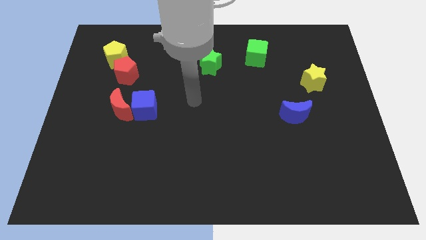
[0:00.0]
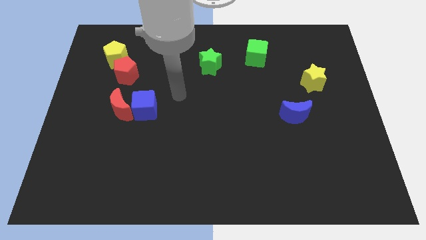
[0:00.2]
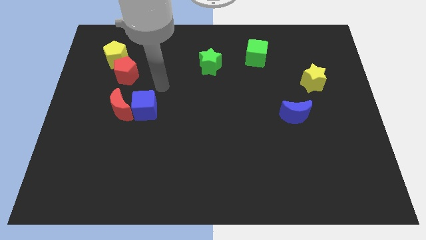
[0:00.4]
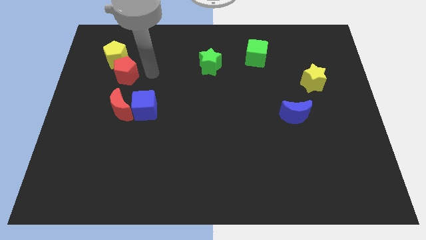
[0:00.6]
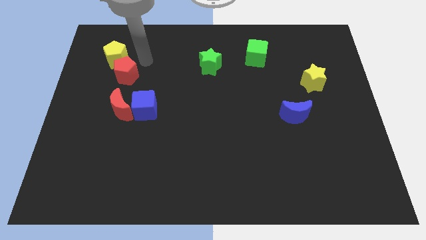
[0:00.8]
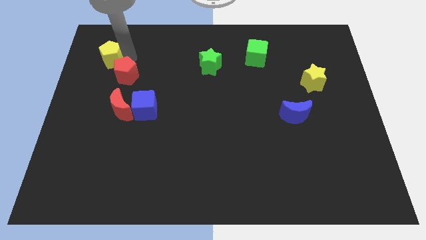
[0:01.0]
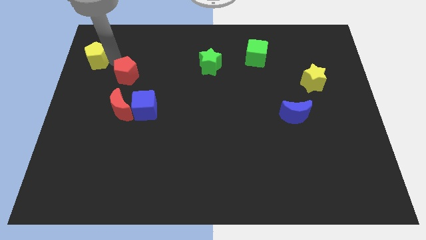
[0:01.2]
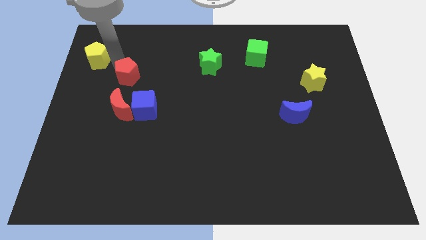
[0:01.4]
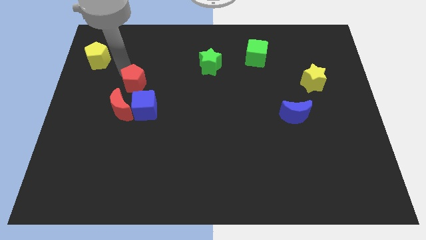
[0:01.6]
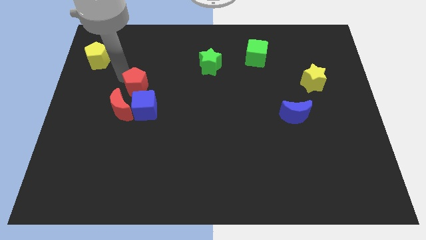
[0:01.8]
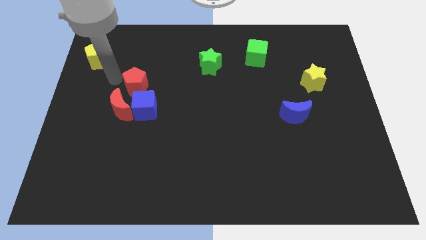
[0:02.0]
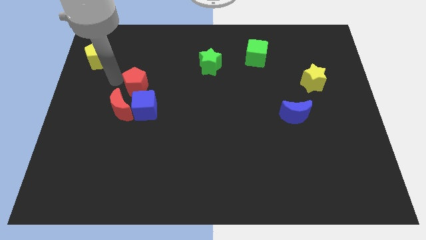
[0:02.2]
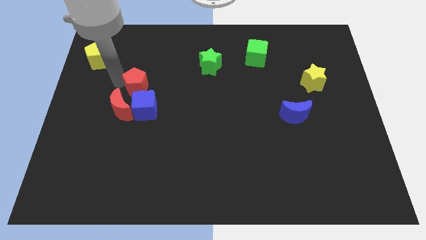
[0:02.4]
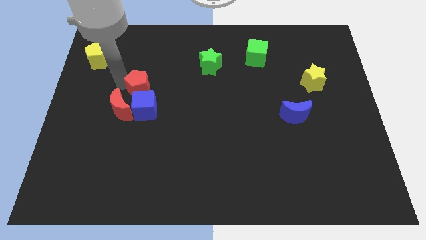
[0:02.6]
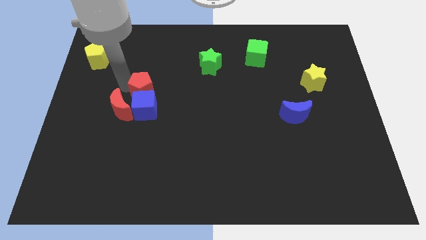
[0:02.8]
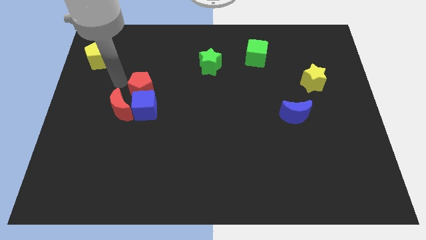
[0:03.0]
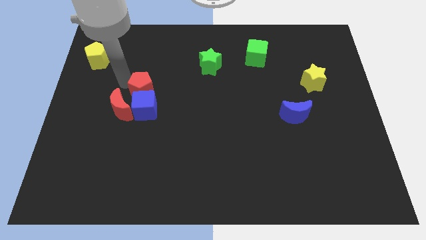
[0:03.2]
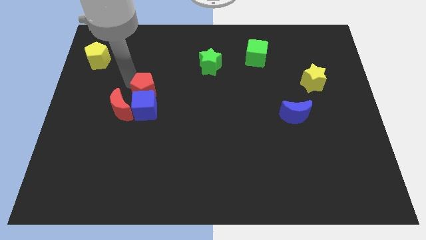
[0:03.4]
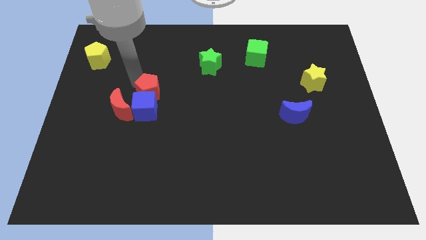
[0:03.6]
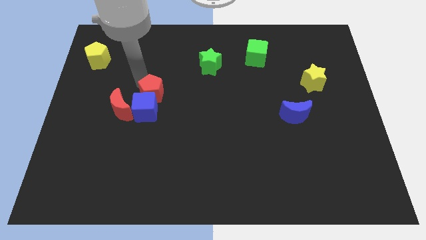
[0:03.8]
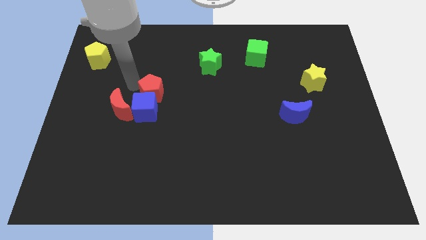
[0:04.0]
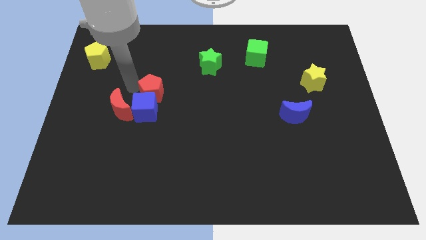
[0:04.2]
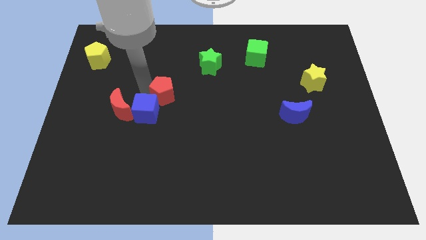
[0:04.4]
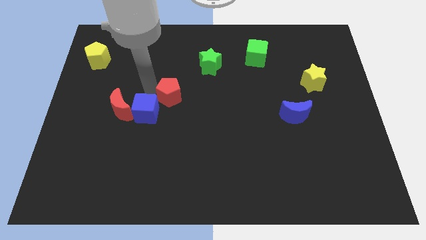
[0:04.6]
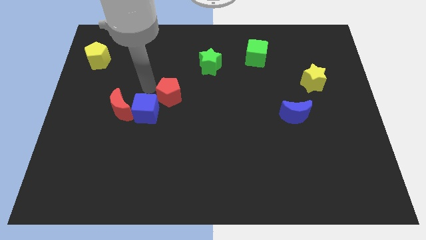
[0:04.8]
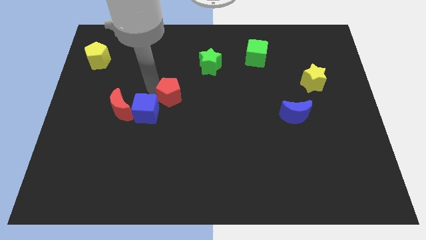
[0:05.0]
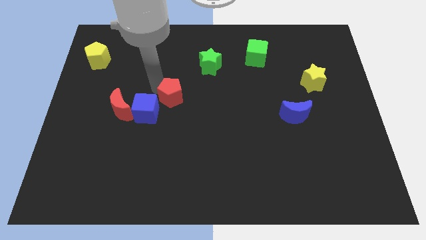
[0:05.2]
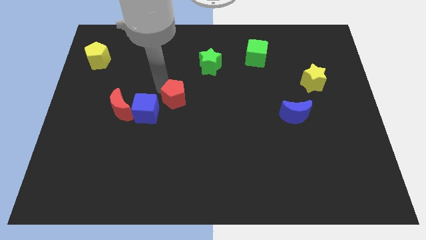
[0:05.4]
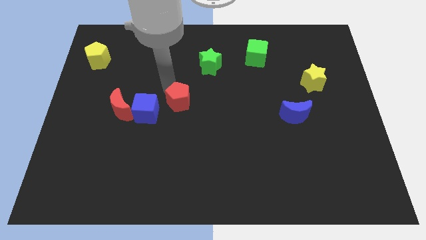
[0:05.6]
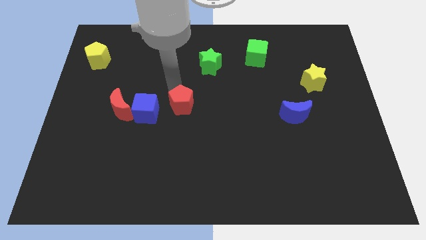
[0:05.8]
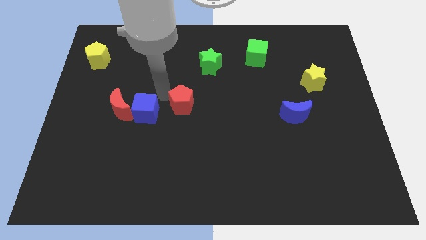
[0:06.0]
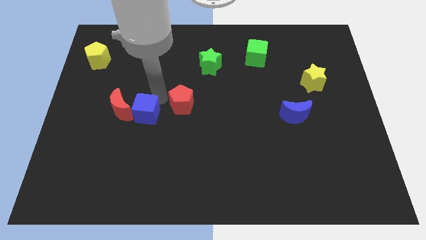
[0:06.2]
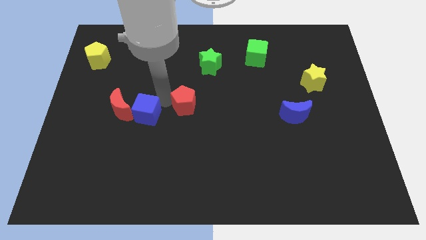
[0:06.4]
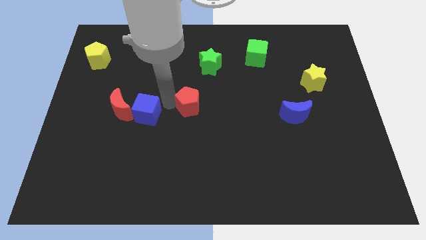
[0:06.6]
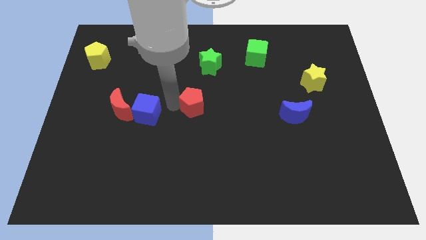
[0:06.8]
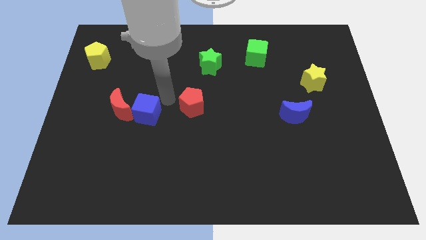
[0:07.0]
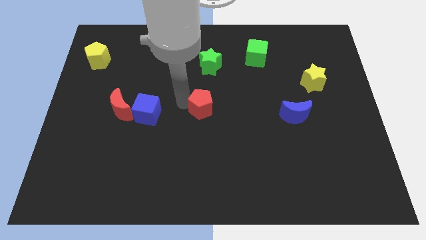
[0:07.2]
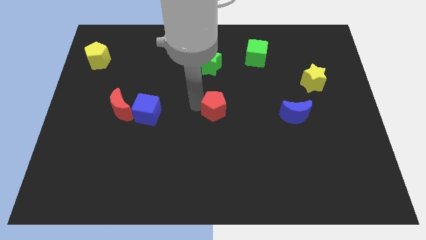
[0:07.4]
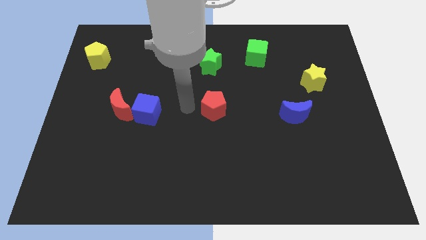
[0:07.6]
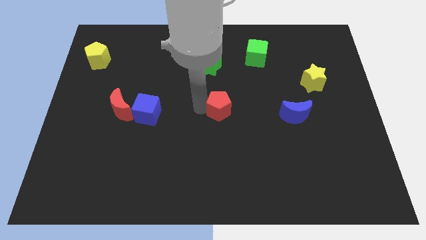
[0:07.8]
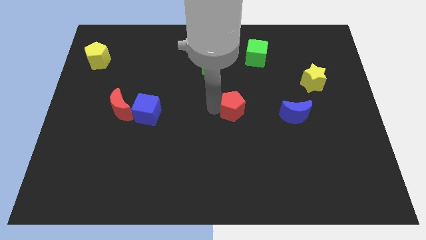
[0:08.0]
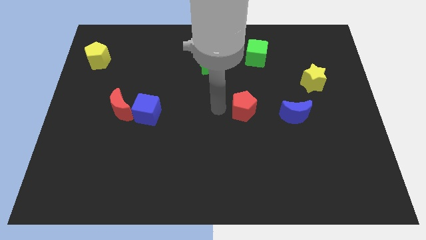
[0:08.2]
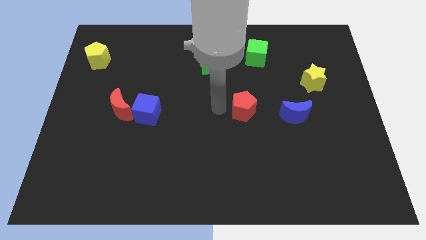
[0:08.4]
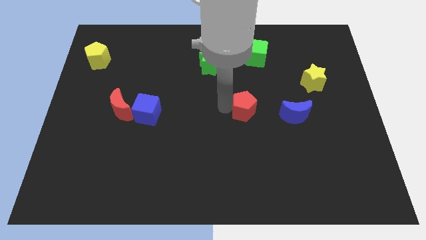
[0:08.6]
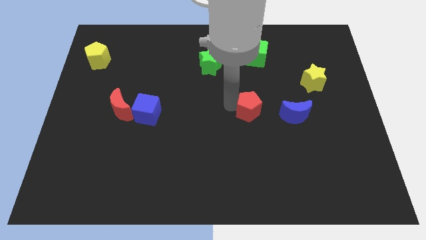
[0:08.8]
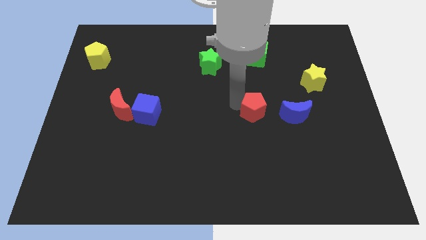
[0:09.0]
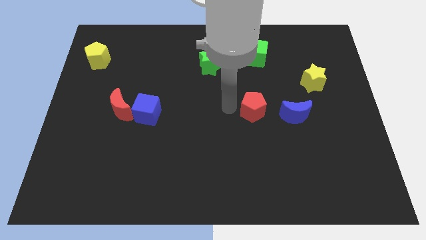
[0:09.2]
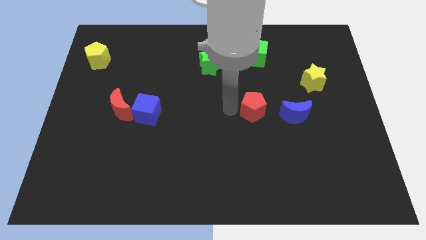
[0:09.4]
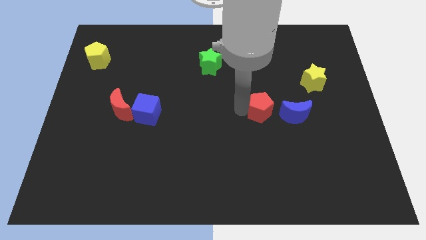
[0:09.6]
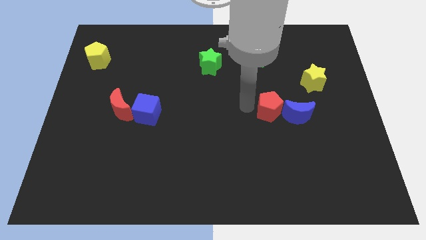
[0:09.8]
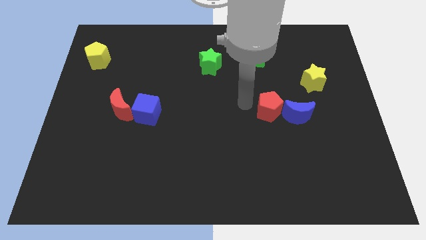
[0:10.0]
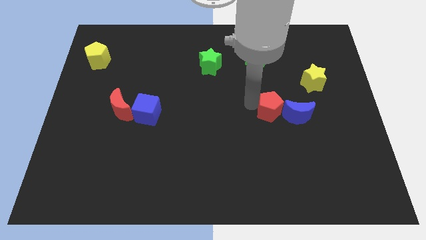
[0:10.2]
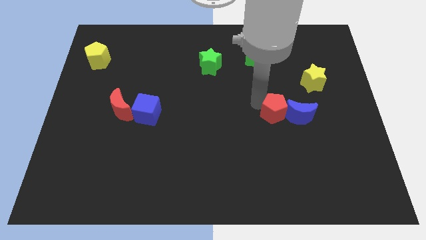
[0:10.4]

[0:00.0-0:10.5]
move the red pentagon close to the blue moon

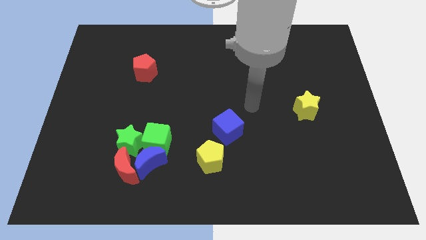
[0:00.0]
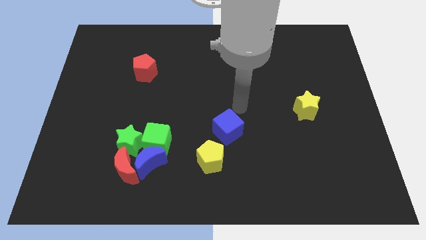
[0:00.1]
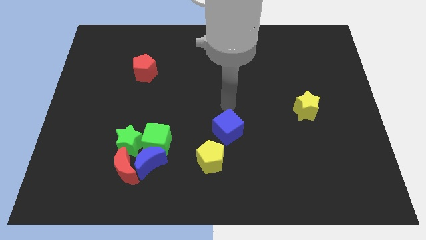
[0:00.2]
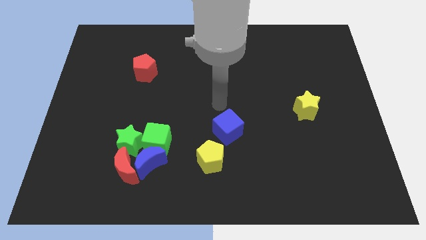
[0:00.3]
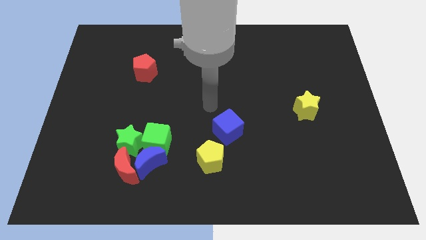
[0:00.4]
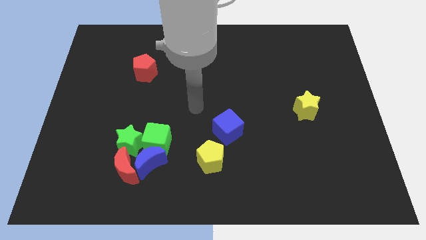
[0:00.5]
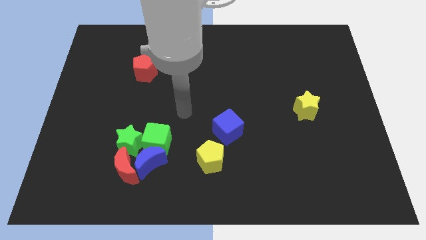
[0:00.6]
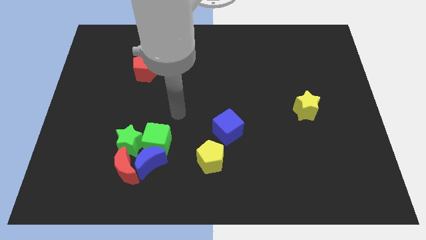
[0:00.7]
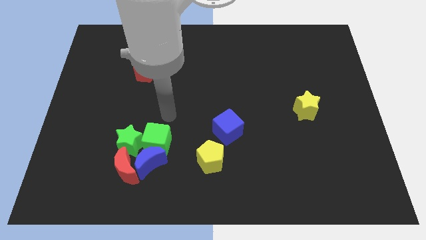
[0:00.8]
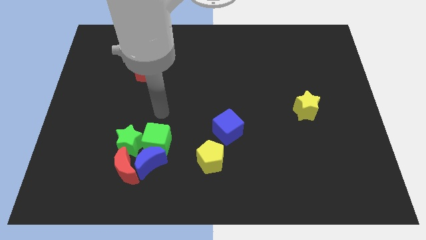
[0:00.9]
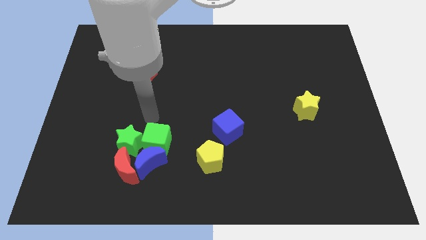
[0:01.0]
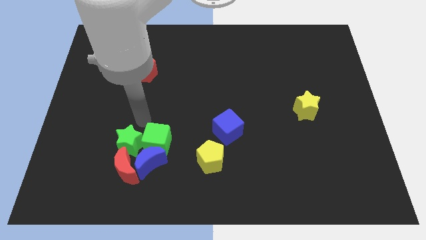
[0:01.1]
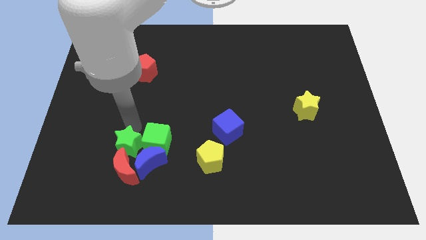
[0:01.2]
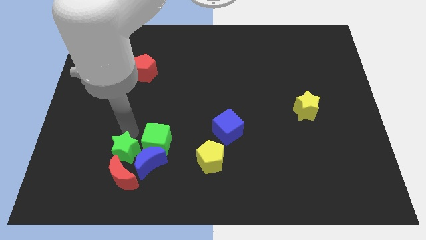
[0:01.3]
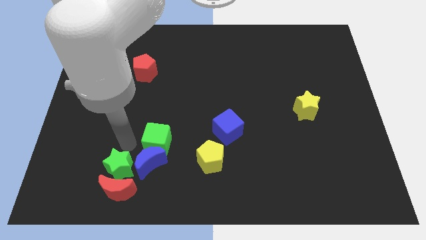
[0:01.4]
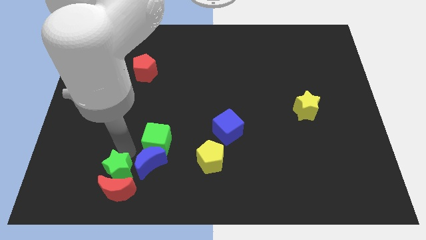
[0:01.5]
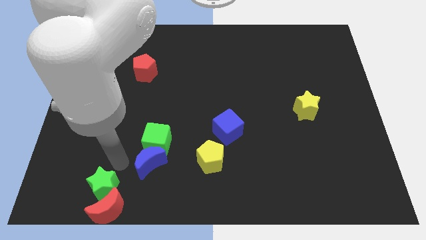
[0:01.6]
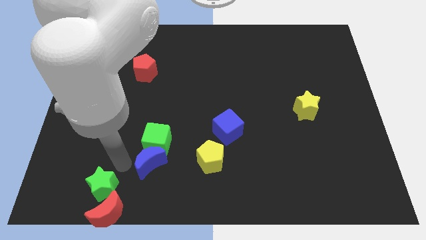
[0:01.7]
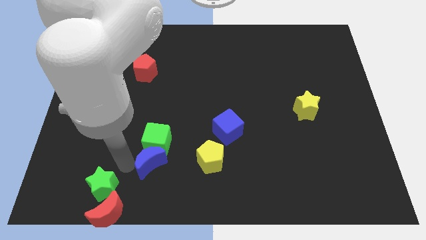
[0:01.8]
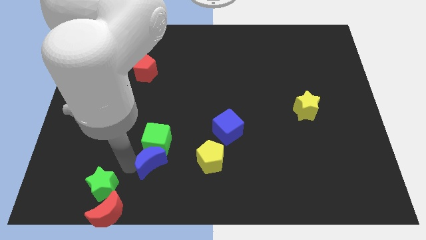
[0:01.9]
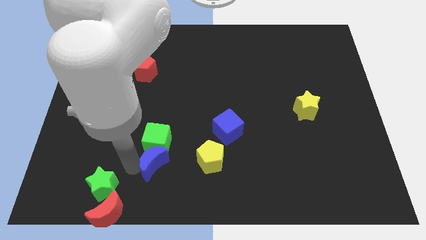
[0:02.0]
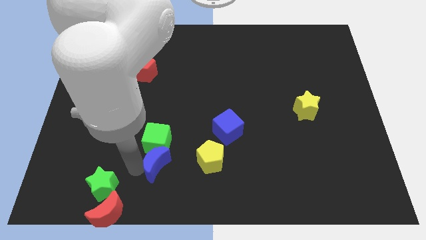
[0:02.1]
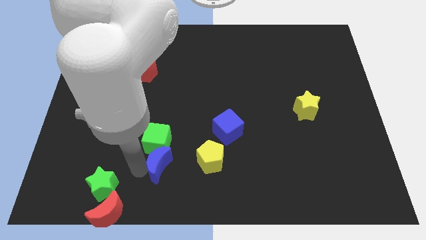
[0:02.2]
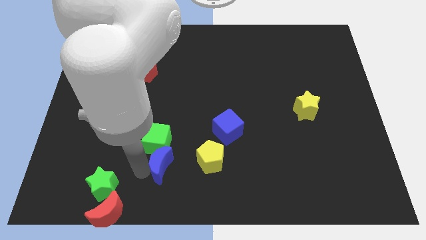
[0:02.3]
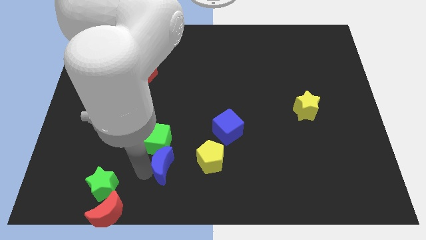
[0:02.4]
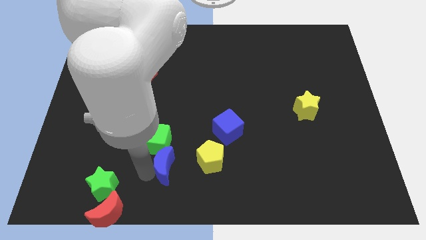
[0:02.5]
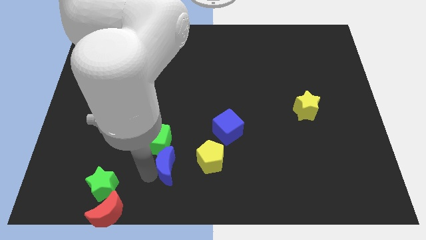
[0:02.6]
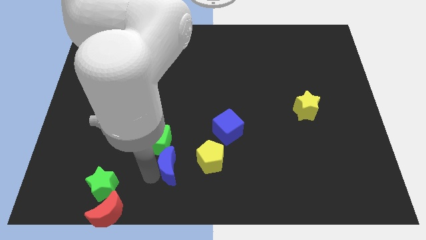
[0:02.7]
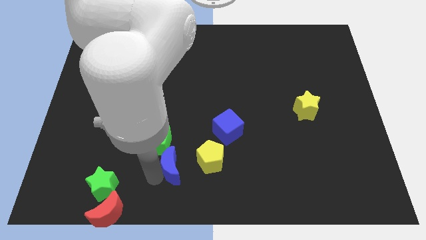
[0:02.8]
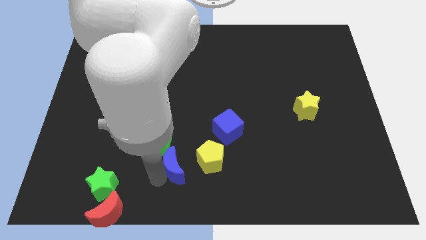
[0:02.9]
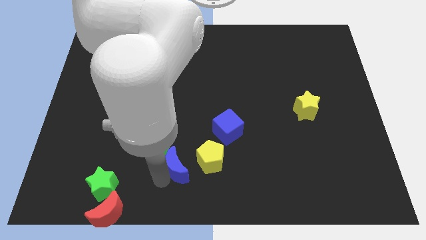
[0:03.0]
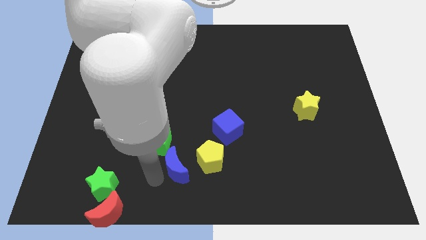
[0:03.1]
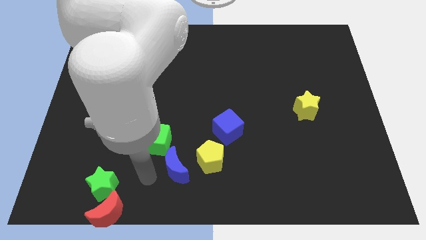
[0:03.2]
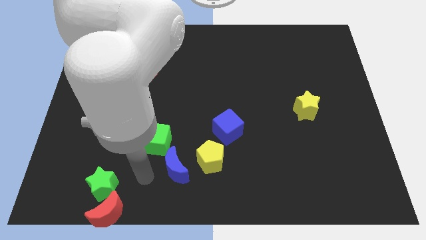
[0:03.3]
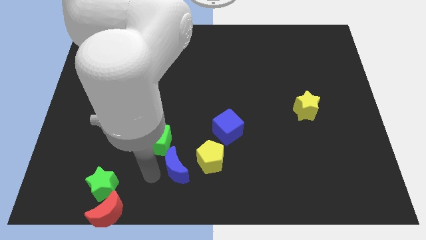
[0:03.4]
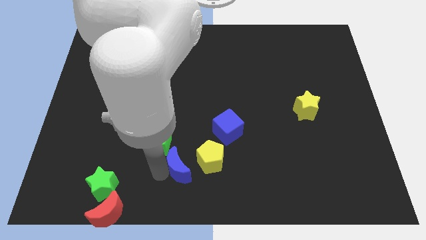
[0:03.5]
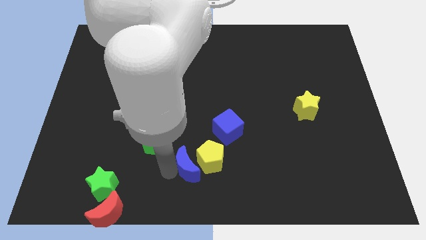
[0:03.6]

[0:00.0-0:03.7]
slide the blue moon towards the yellow pentagon
